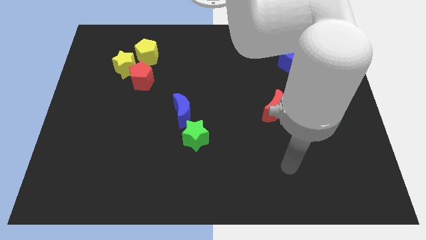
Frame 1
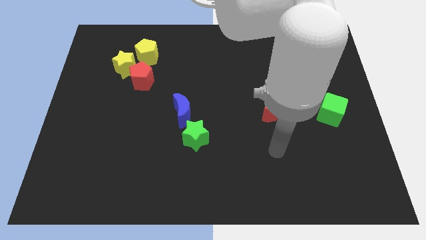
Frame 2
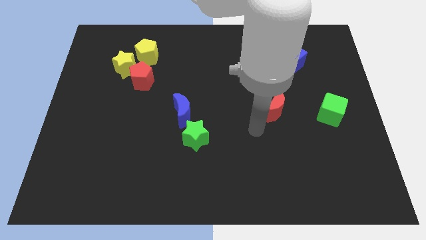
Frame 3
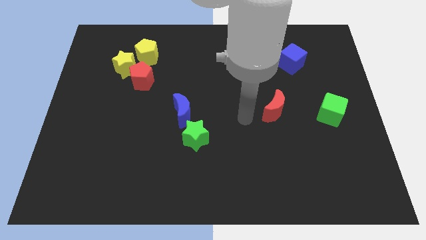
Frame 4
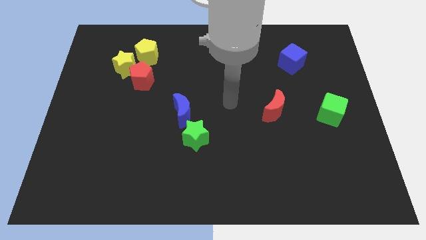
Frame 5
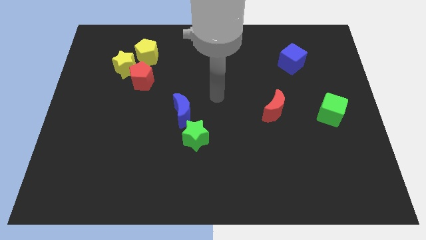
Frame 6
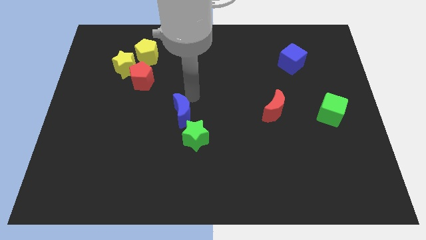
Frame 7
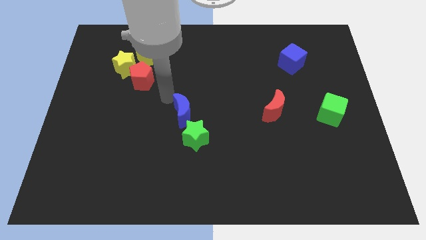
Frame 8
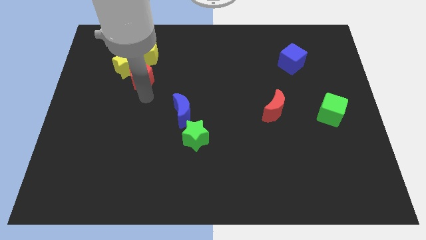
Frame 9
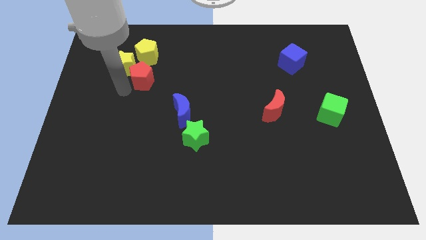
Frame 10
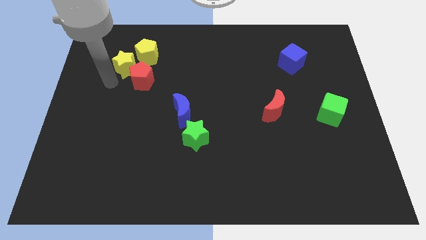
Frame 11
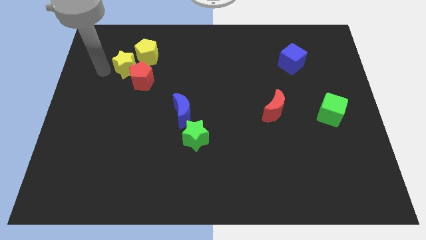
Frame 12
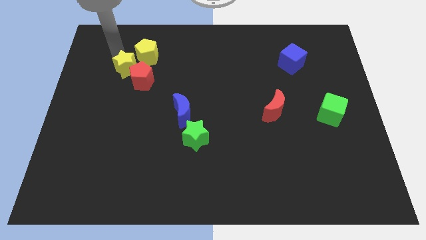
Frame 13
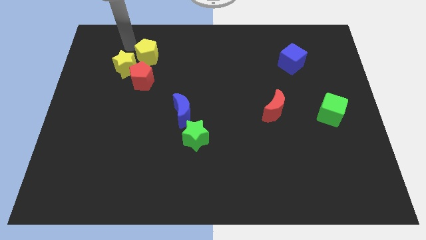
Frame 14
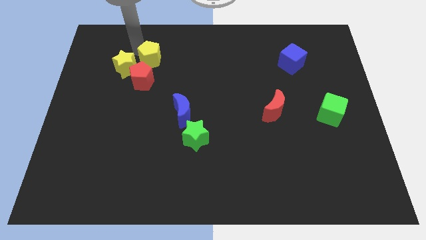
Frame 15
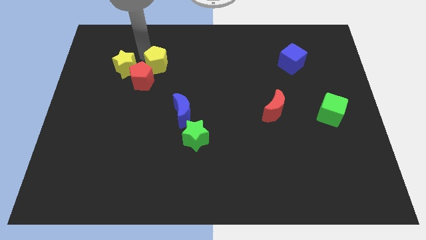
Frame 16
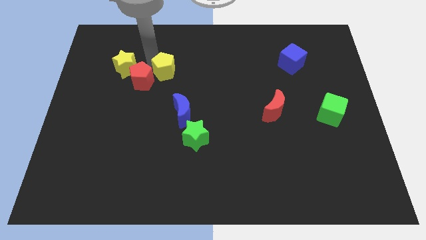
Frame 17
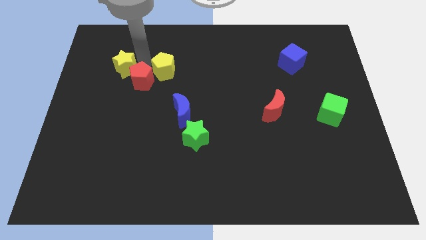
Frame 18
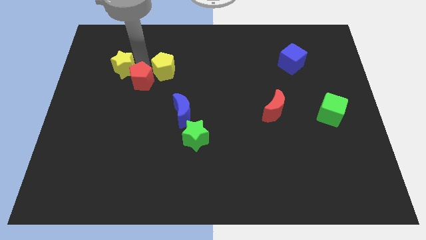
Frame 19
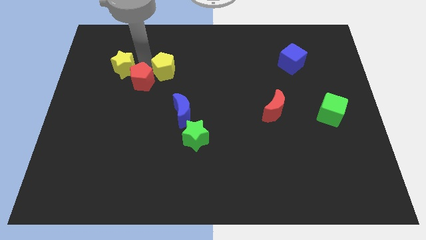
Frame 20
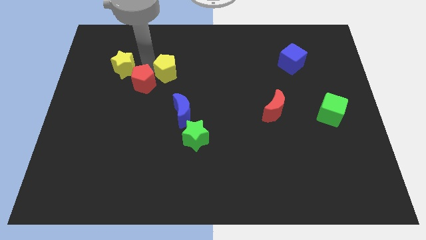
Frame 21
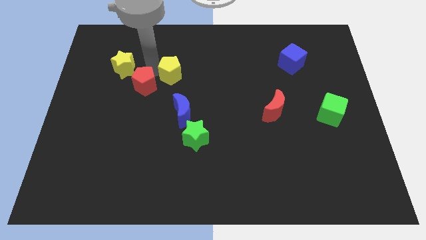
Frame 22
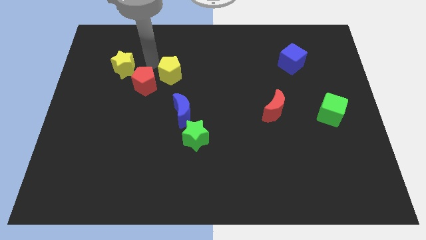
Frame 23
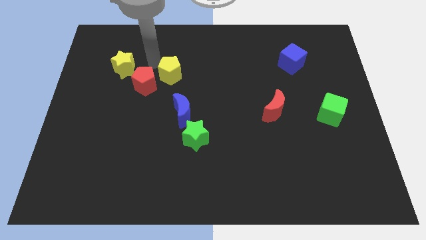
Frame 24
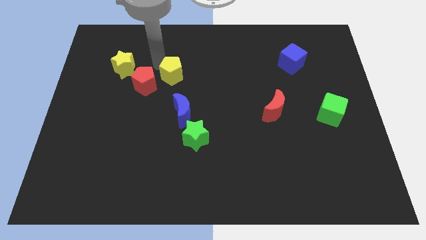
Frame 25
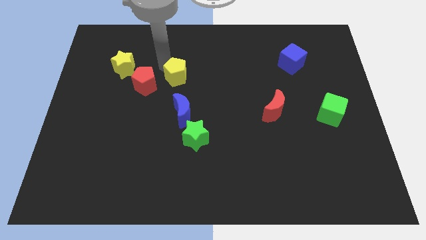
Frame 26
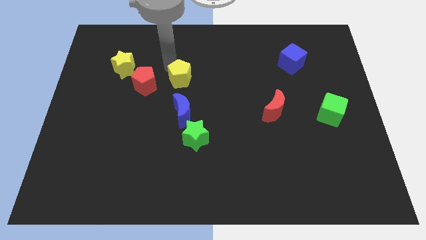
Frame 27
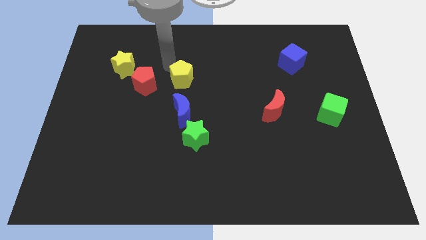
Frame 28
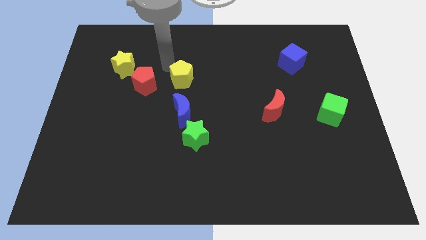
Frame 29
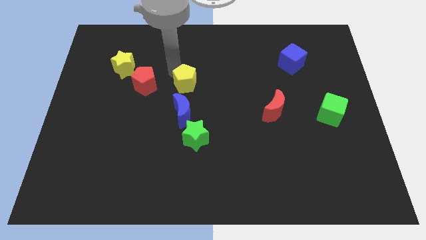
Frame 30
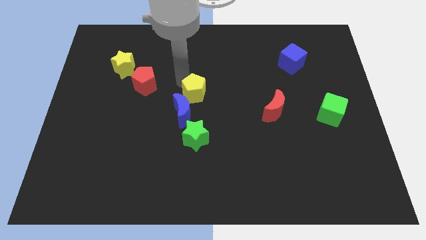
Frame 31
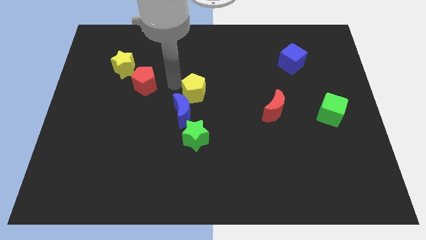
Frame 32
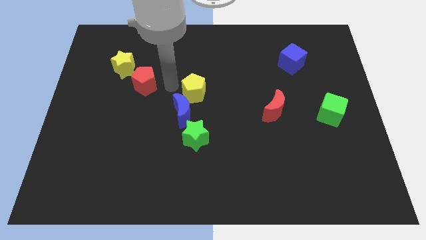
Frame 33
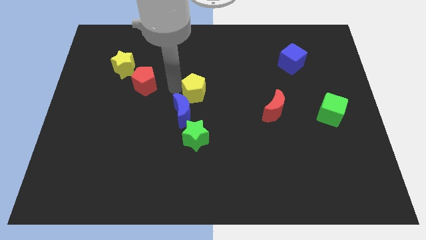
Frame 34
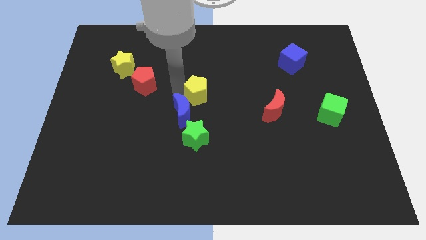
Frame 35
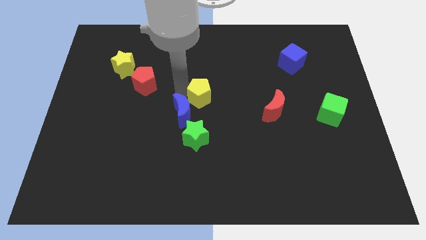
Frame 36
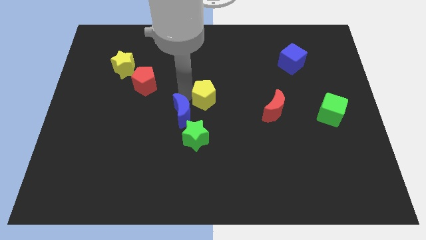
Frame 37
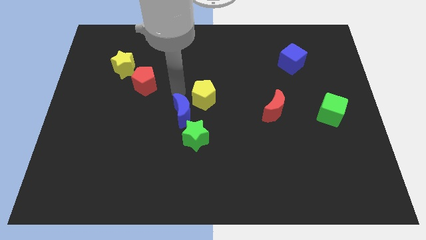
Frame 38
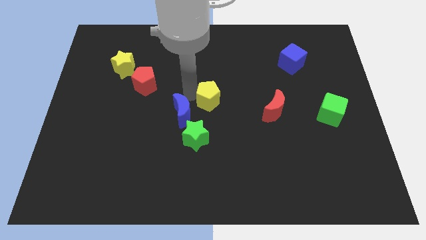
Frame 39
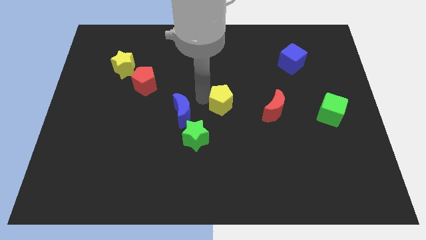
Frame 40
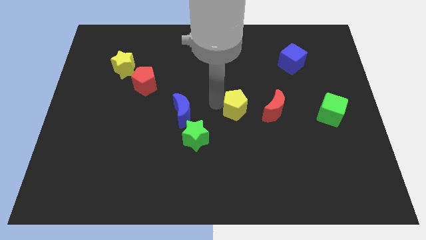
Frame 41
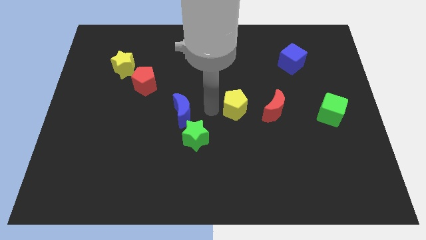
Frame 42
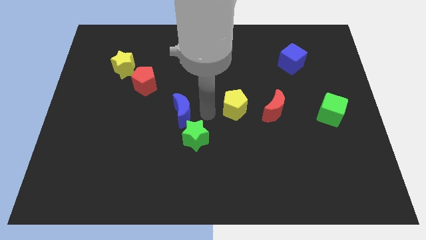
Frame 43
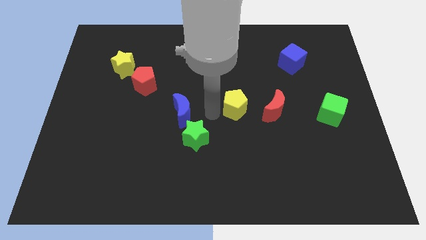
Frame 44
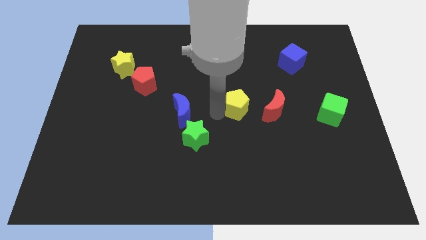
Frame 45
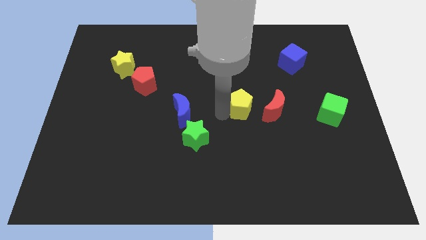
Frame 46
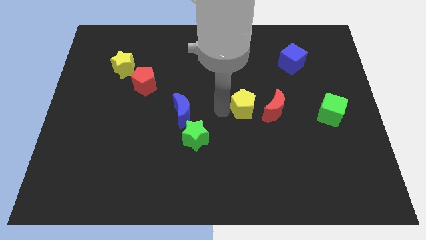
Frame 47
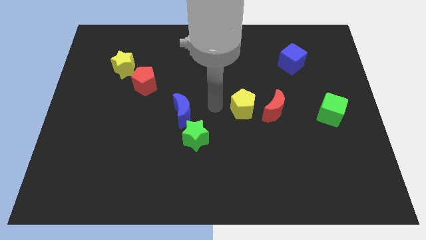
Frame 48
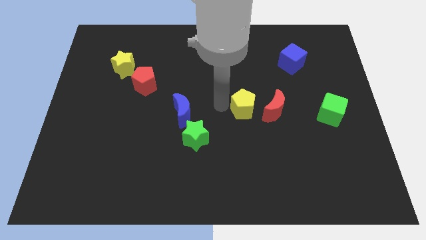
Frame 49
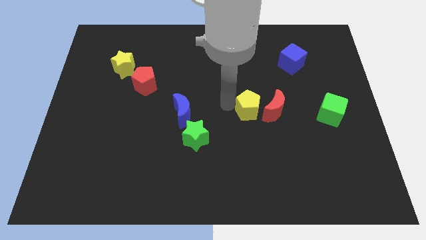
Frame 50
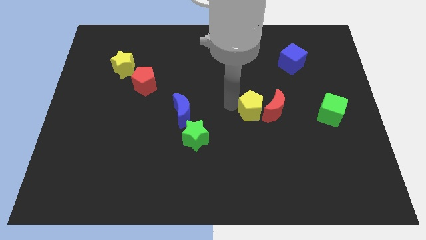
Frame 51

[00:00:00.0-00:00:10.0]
slide the yellow pentagon next to the red moon

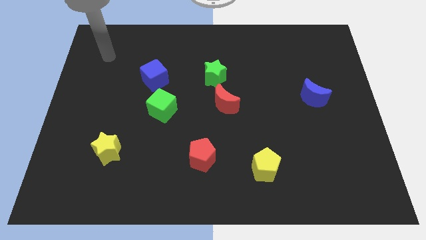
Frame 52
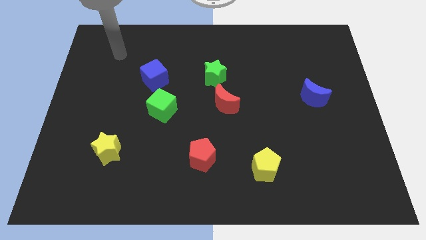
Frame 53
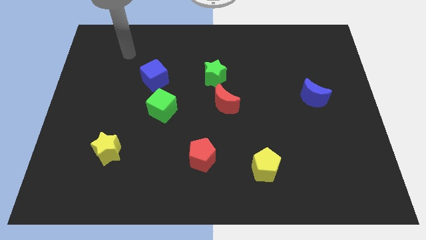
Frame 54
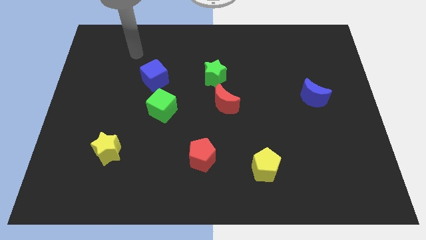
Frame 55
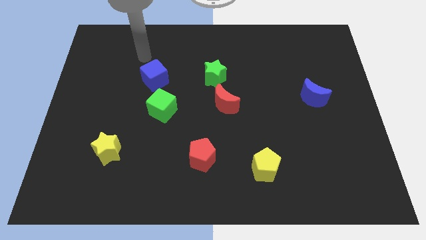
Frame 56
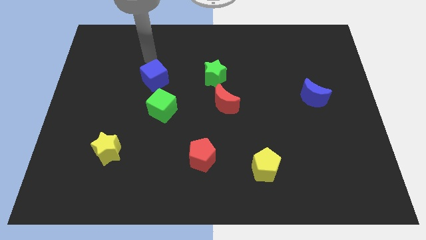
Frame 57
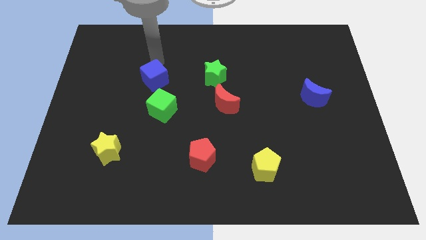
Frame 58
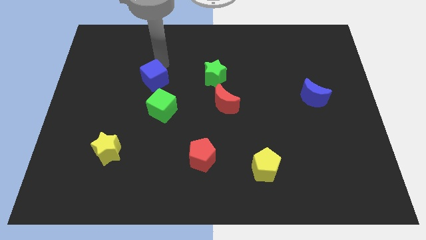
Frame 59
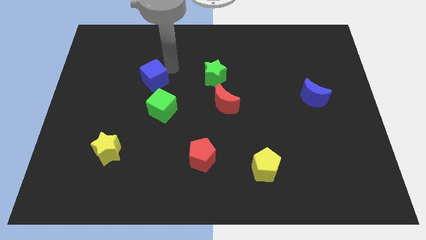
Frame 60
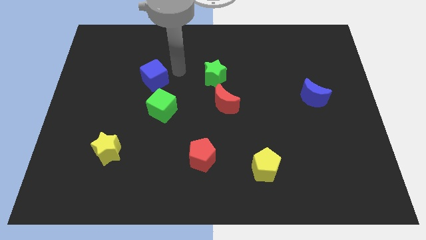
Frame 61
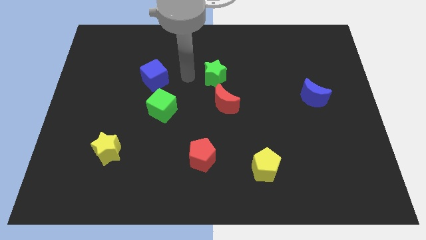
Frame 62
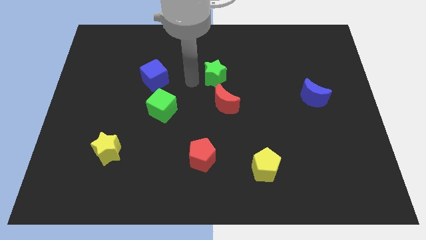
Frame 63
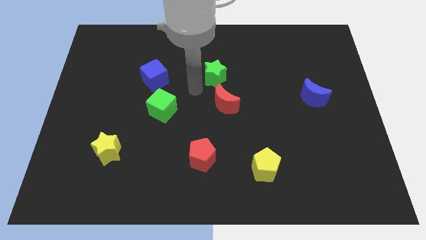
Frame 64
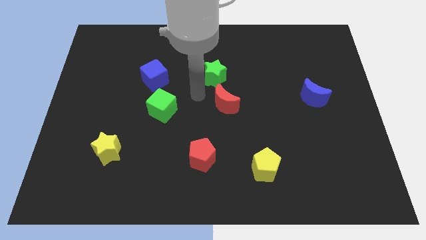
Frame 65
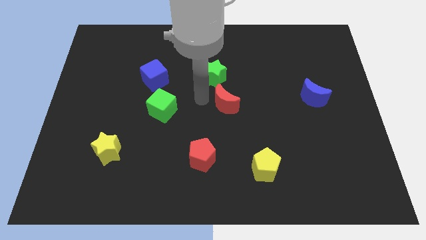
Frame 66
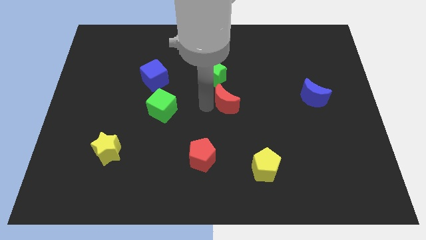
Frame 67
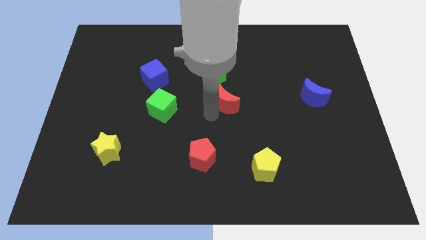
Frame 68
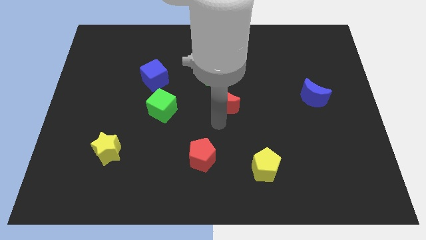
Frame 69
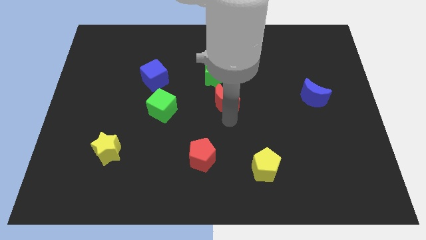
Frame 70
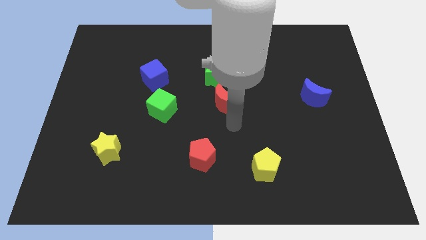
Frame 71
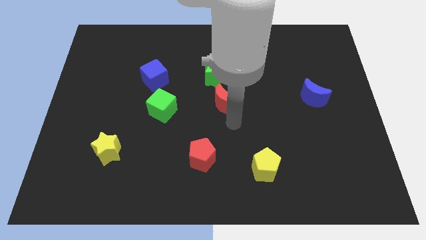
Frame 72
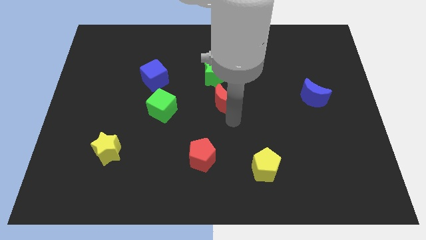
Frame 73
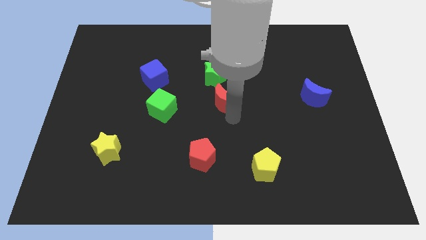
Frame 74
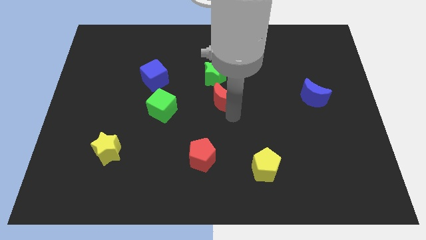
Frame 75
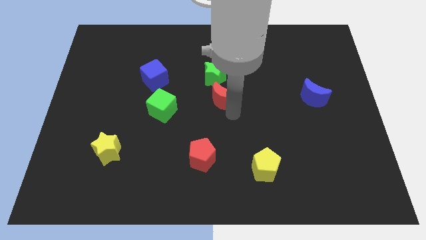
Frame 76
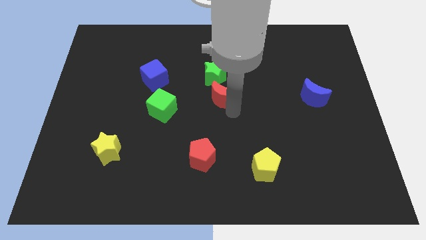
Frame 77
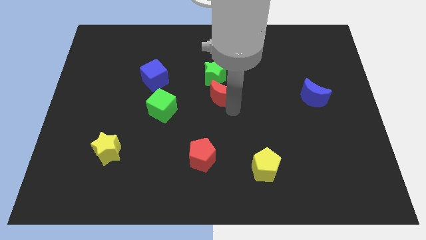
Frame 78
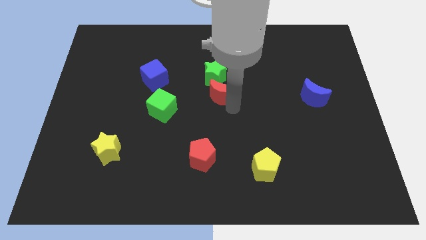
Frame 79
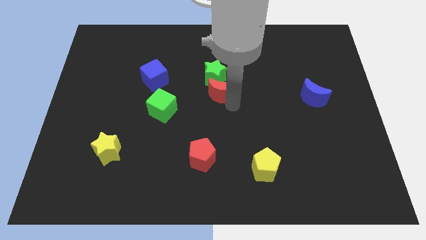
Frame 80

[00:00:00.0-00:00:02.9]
move the red moon to the green star
